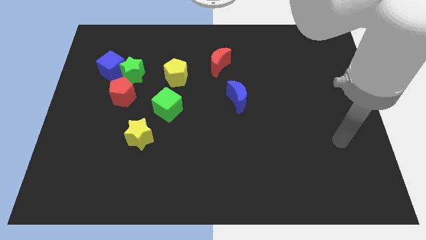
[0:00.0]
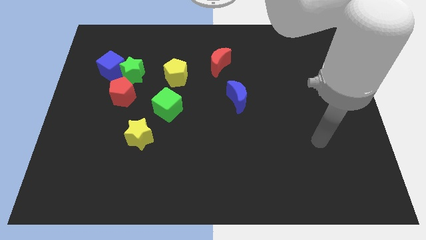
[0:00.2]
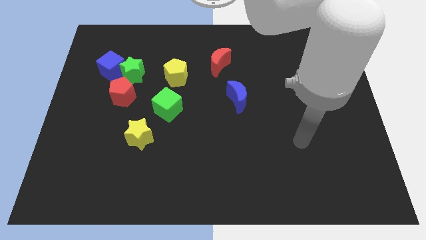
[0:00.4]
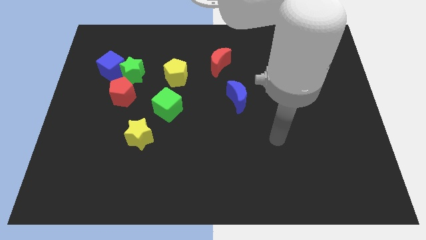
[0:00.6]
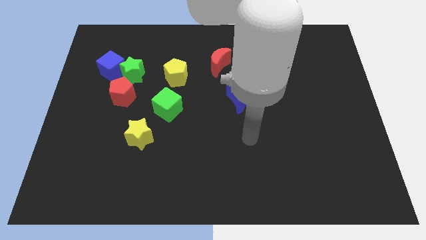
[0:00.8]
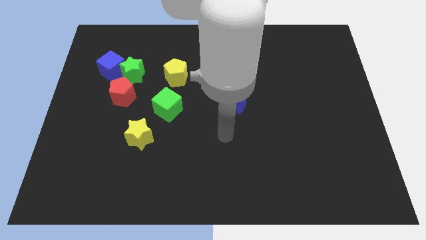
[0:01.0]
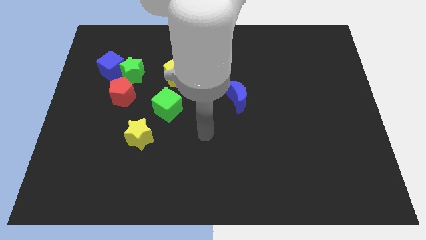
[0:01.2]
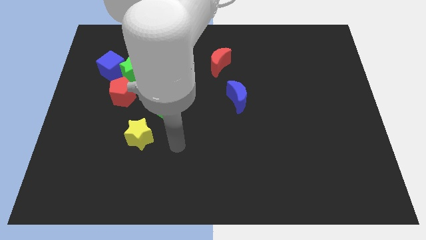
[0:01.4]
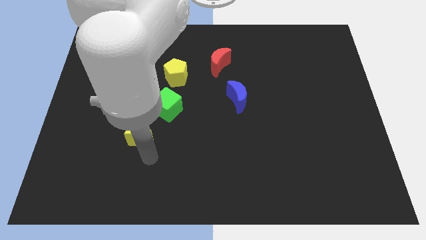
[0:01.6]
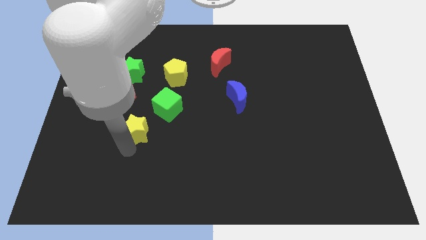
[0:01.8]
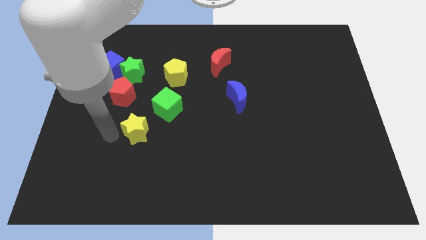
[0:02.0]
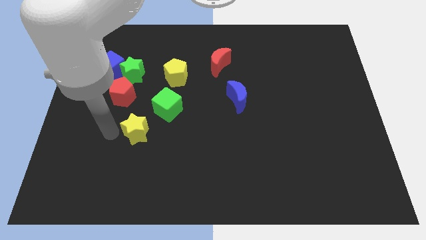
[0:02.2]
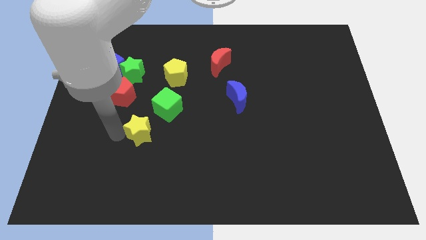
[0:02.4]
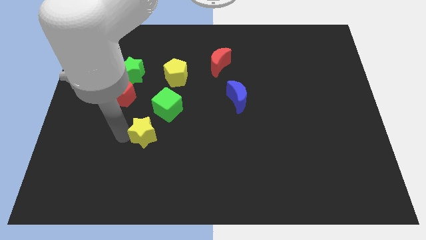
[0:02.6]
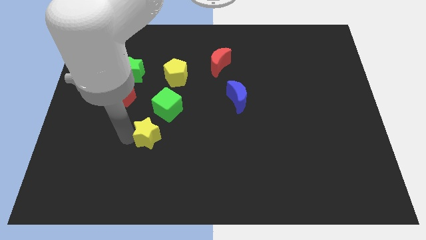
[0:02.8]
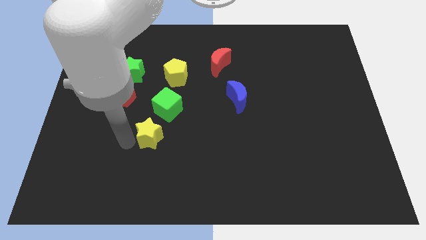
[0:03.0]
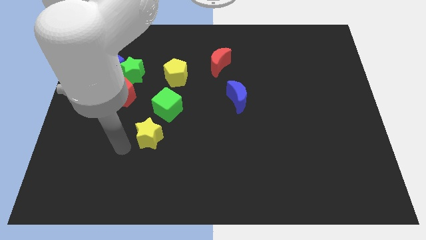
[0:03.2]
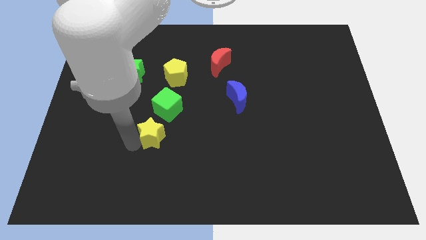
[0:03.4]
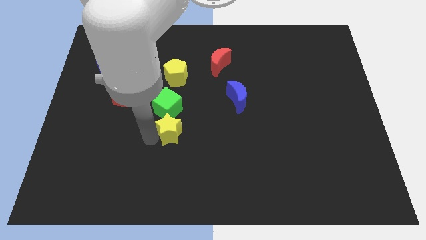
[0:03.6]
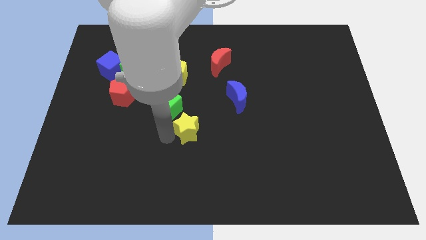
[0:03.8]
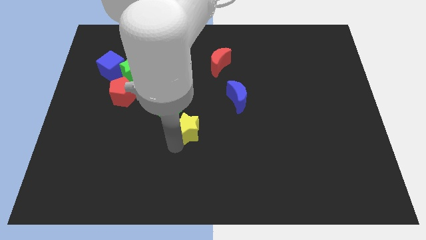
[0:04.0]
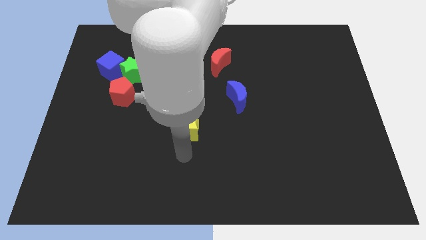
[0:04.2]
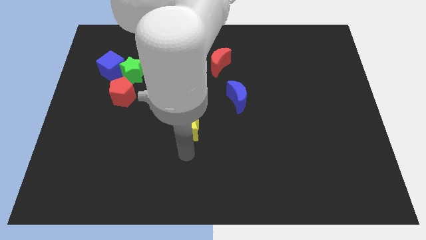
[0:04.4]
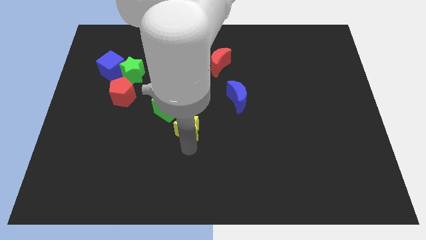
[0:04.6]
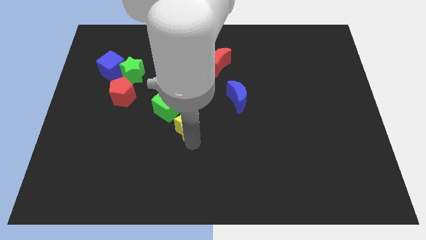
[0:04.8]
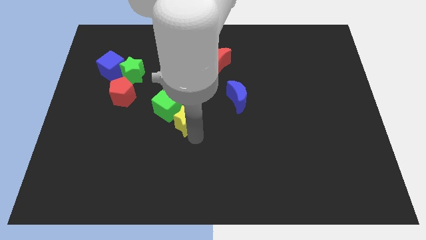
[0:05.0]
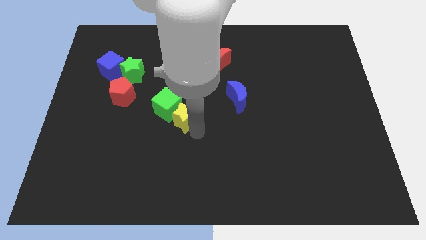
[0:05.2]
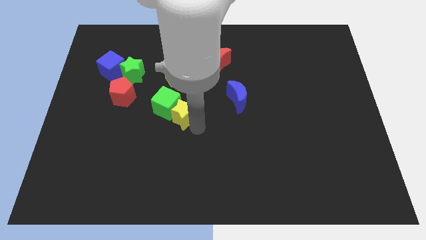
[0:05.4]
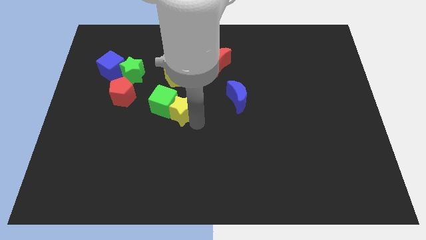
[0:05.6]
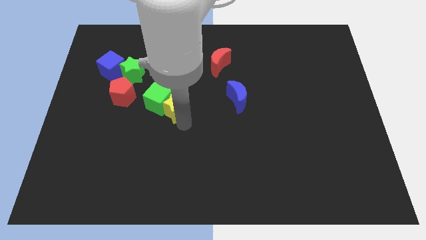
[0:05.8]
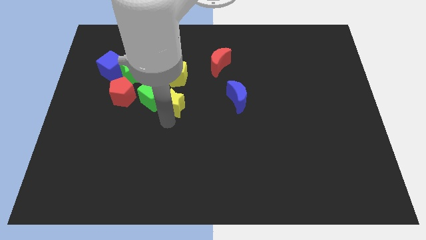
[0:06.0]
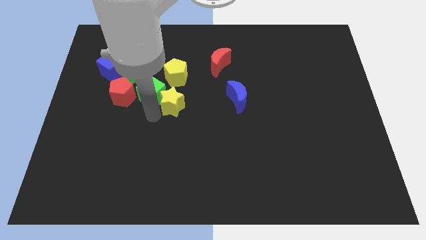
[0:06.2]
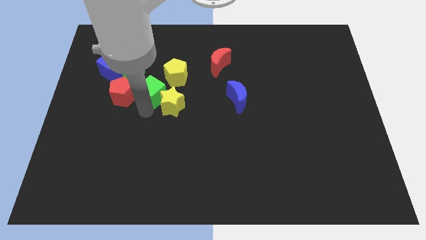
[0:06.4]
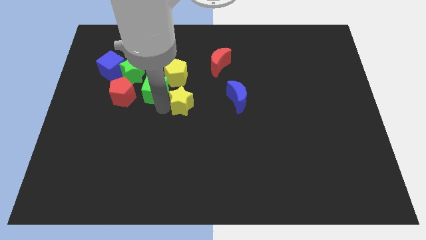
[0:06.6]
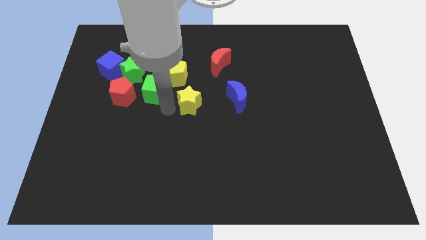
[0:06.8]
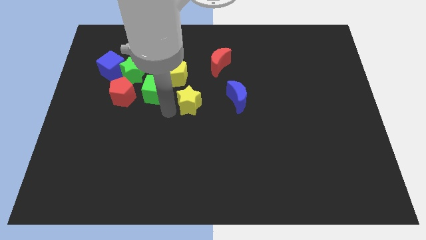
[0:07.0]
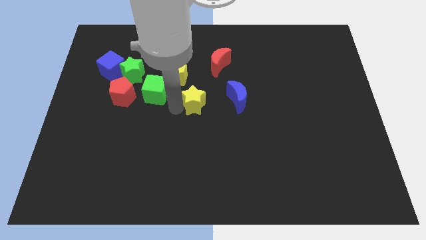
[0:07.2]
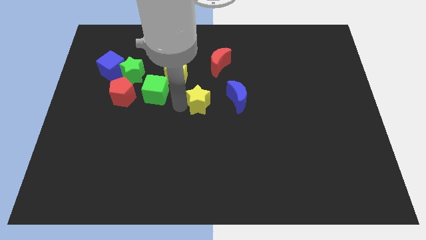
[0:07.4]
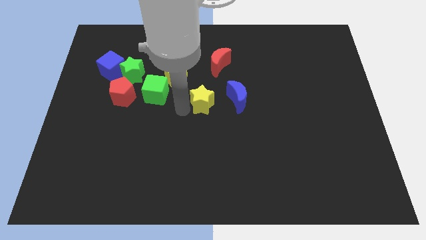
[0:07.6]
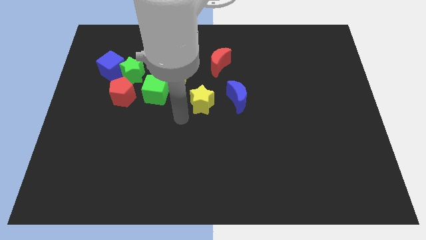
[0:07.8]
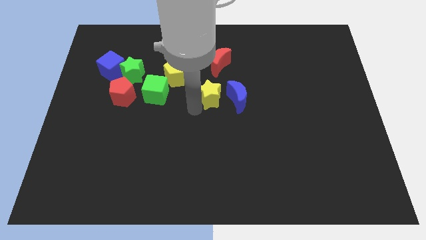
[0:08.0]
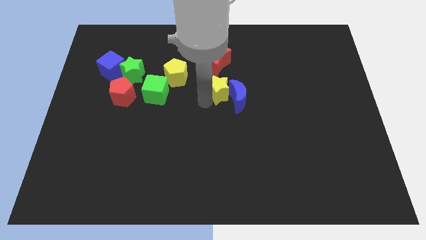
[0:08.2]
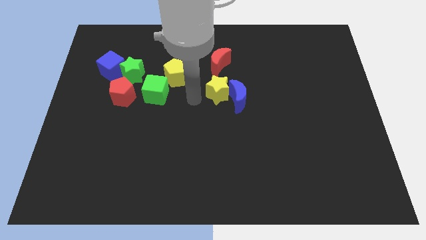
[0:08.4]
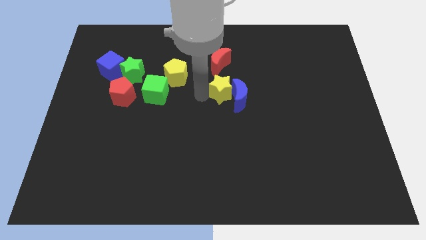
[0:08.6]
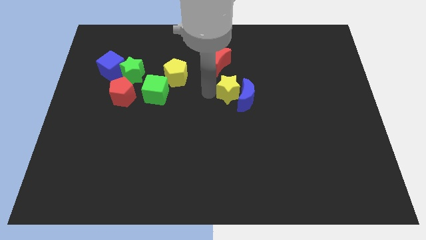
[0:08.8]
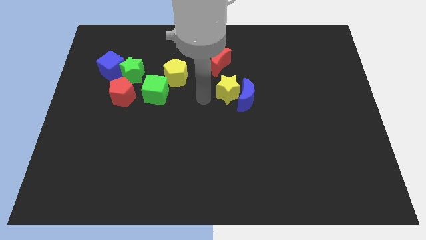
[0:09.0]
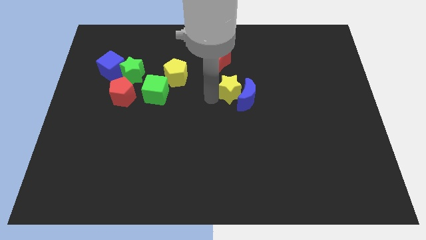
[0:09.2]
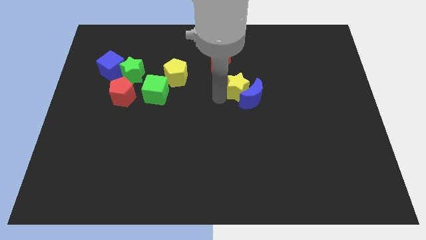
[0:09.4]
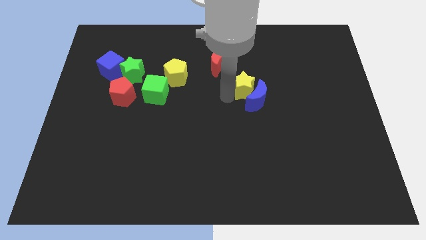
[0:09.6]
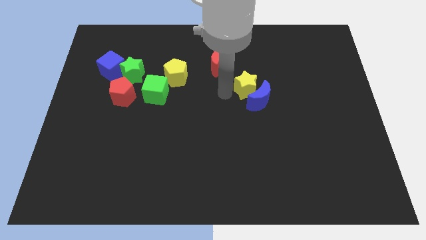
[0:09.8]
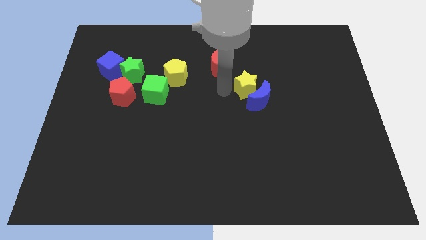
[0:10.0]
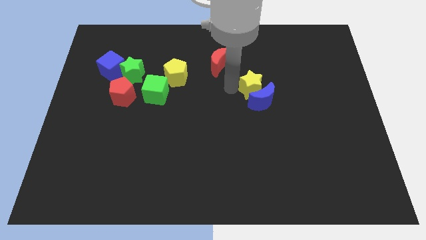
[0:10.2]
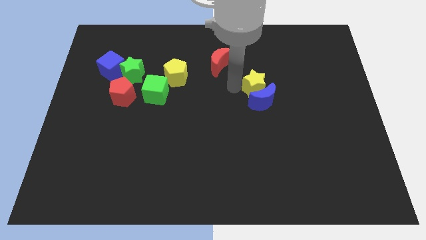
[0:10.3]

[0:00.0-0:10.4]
put the yellow star diagonally up and to the right of the blue moon

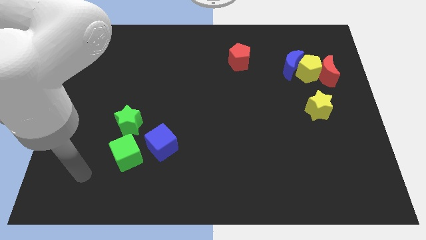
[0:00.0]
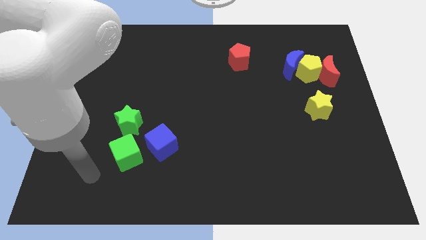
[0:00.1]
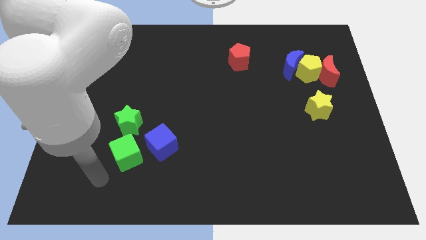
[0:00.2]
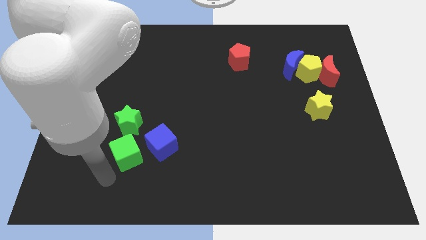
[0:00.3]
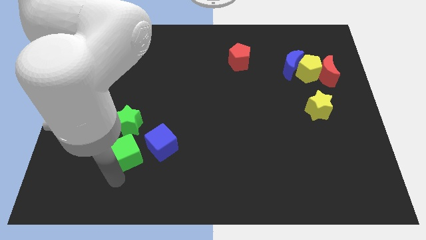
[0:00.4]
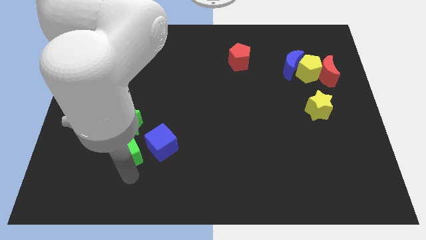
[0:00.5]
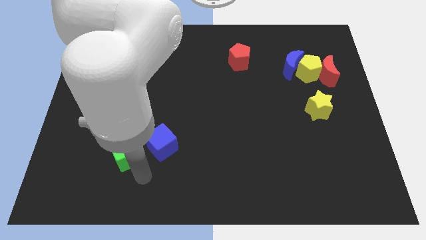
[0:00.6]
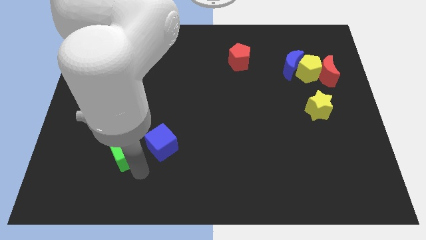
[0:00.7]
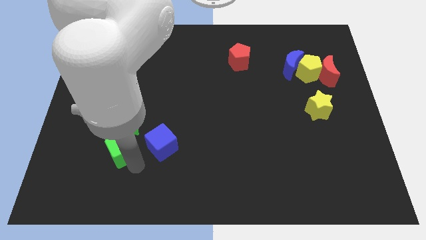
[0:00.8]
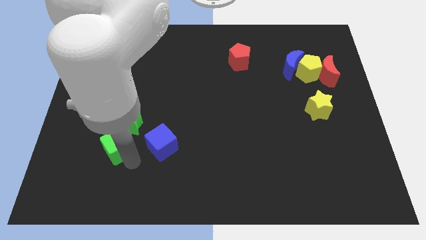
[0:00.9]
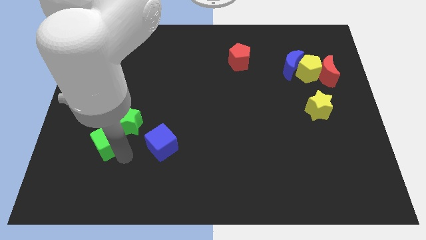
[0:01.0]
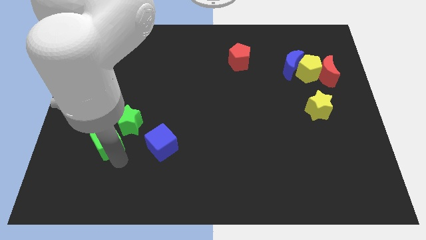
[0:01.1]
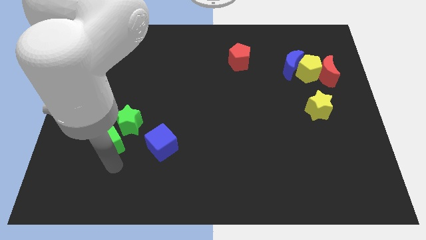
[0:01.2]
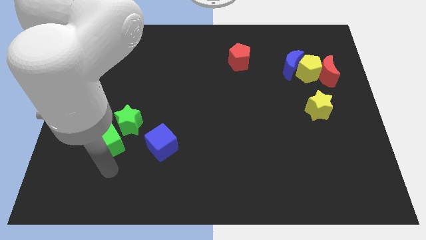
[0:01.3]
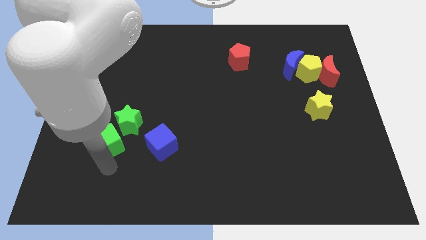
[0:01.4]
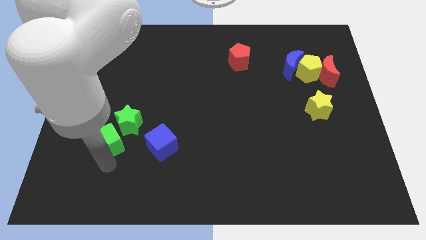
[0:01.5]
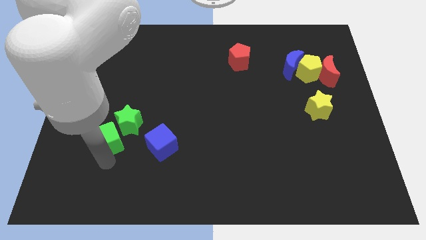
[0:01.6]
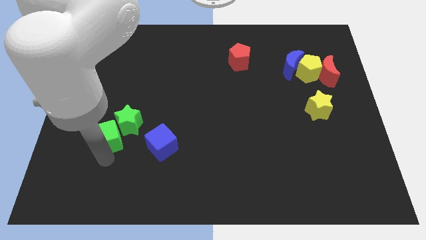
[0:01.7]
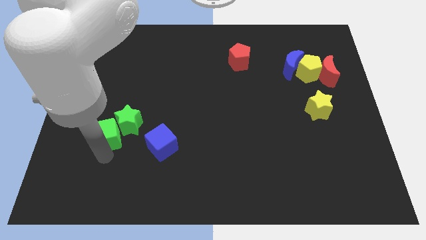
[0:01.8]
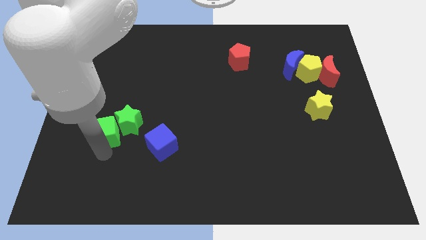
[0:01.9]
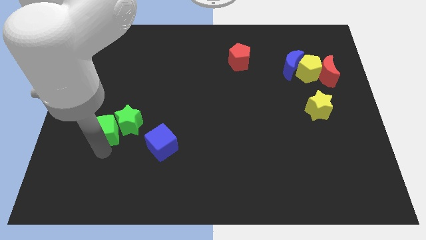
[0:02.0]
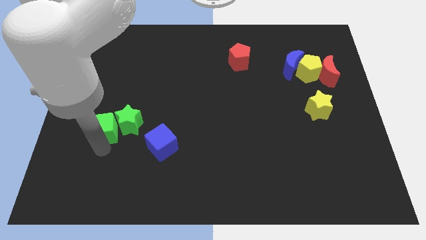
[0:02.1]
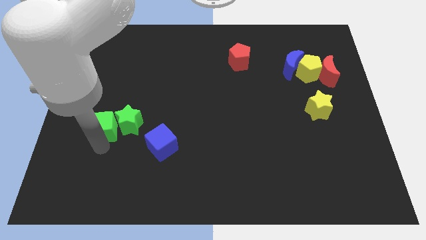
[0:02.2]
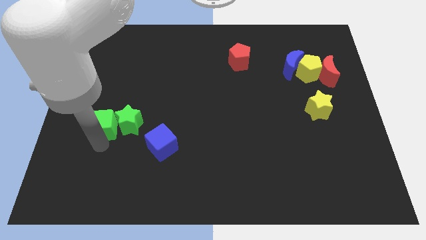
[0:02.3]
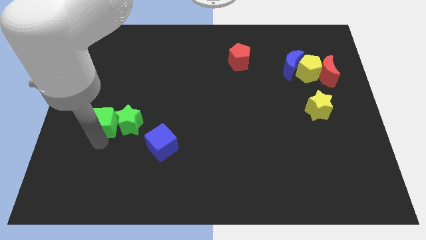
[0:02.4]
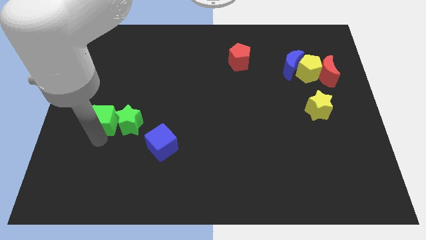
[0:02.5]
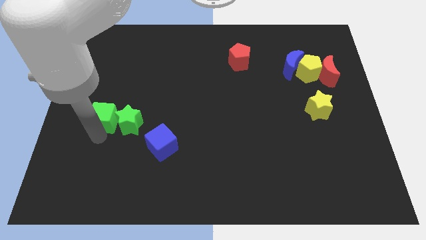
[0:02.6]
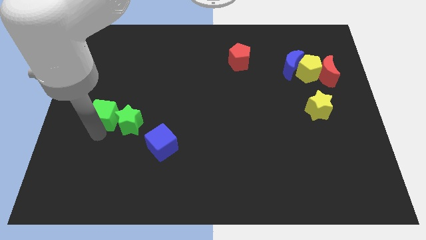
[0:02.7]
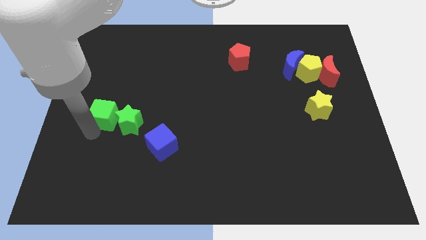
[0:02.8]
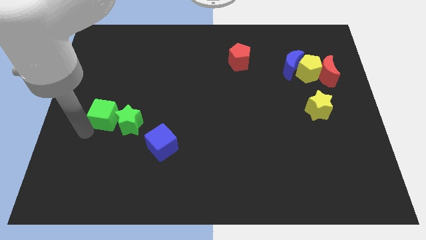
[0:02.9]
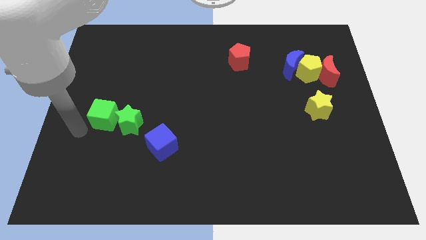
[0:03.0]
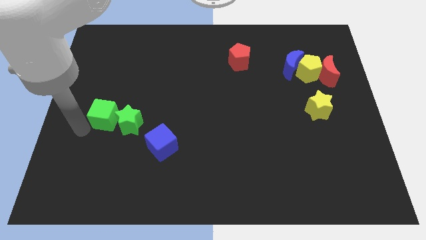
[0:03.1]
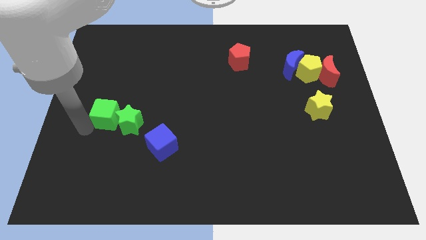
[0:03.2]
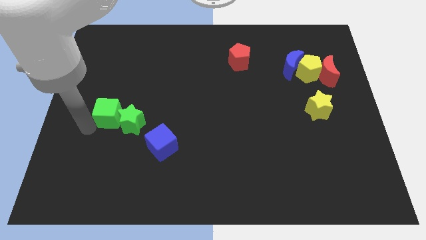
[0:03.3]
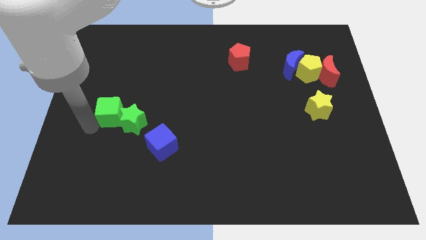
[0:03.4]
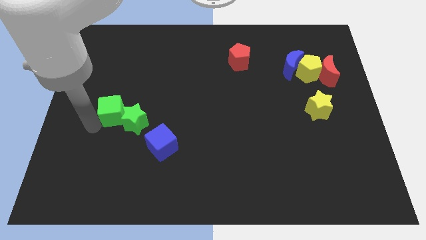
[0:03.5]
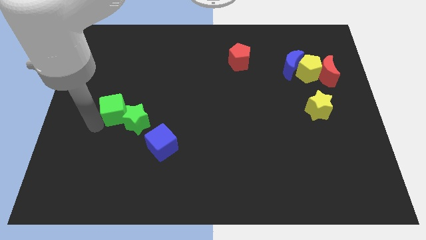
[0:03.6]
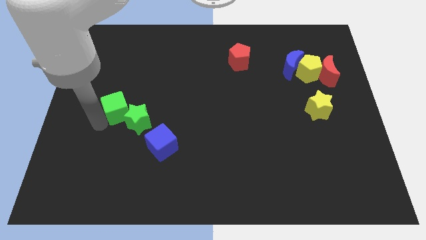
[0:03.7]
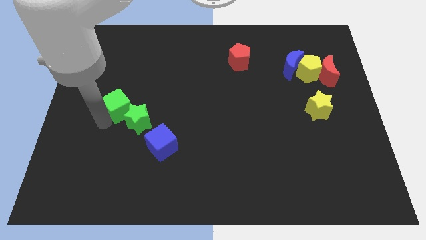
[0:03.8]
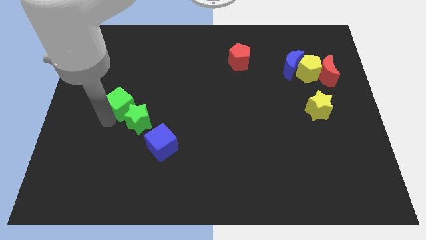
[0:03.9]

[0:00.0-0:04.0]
move the green cube above the green star
